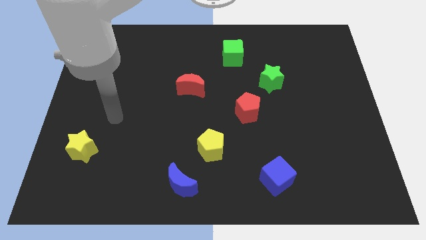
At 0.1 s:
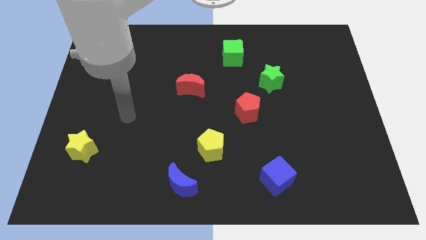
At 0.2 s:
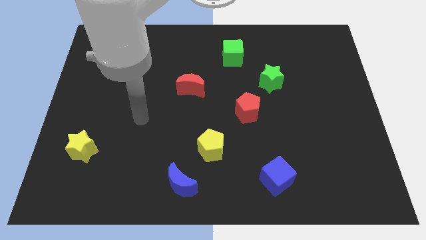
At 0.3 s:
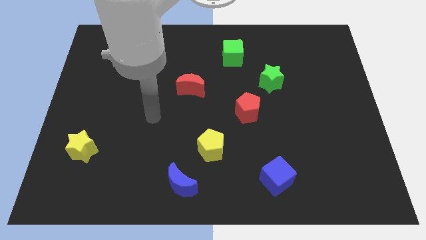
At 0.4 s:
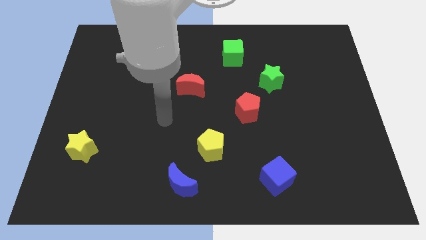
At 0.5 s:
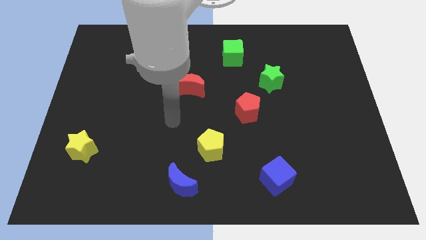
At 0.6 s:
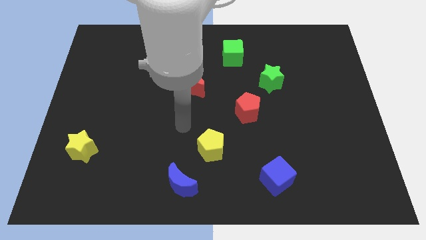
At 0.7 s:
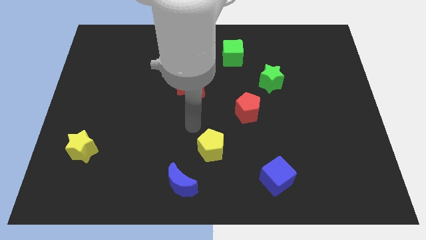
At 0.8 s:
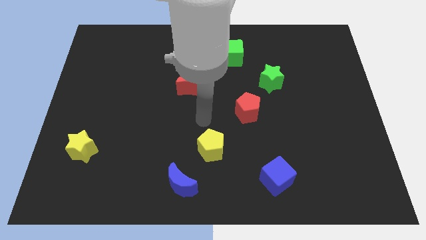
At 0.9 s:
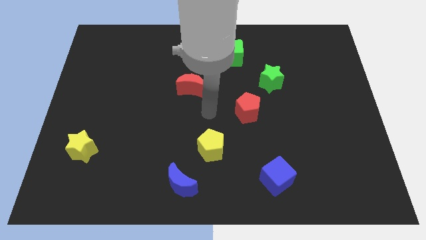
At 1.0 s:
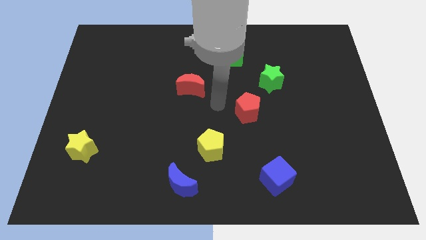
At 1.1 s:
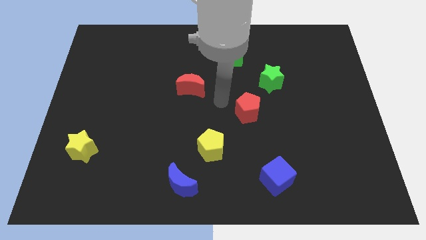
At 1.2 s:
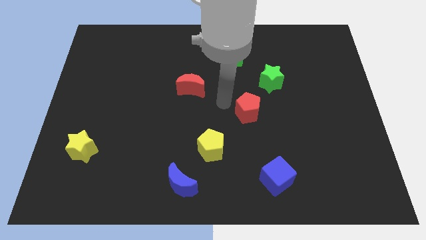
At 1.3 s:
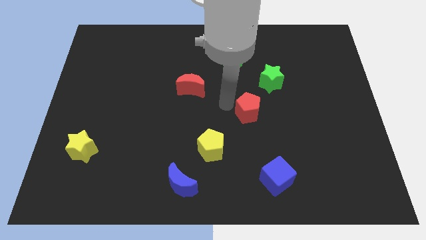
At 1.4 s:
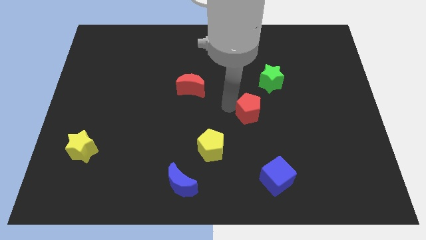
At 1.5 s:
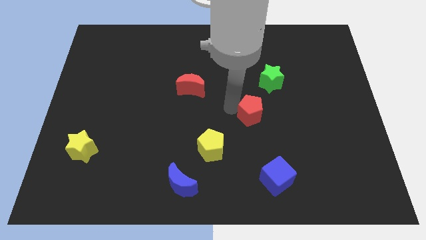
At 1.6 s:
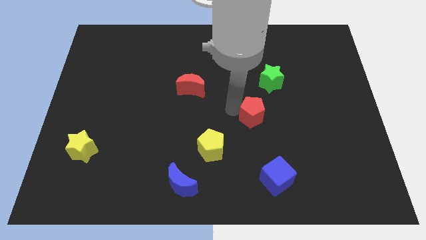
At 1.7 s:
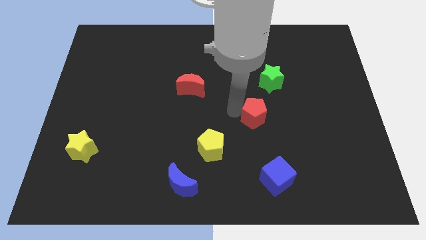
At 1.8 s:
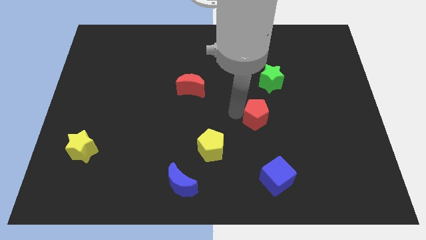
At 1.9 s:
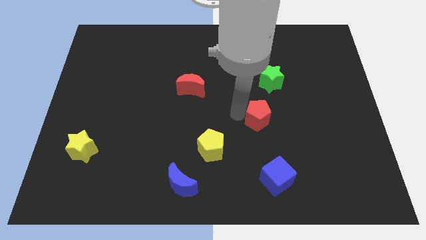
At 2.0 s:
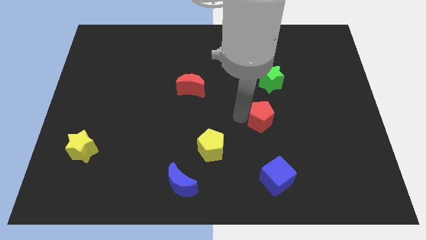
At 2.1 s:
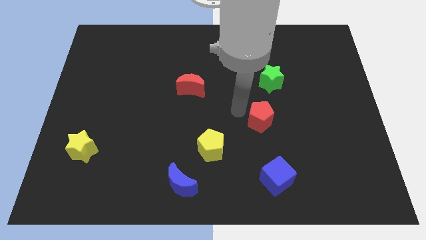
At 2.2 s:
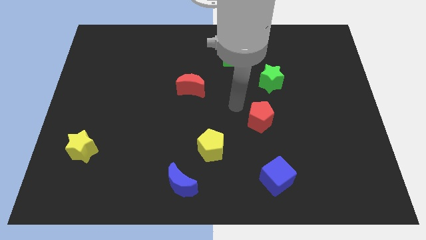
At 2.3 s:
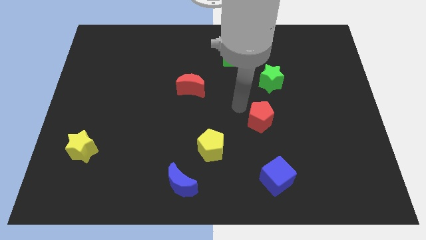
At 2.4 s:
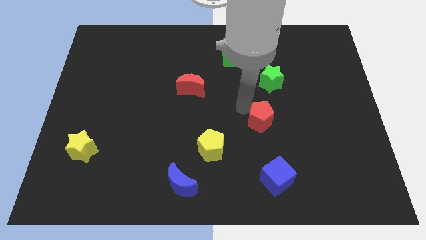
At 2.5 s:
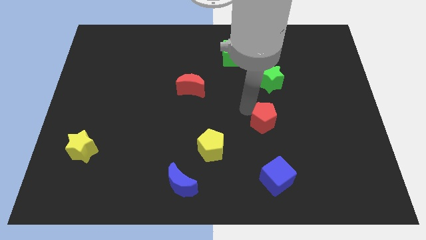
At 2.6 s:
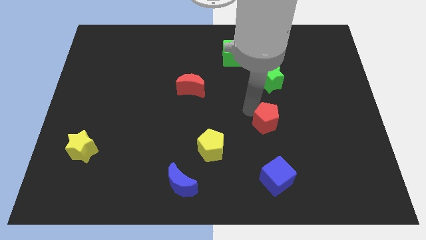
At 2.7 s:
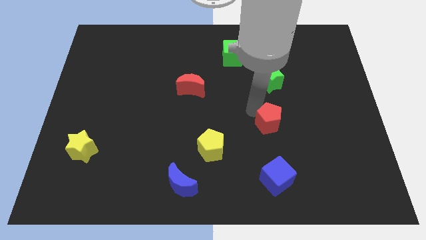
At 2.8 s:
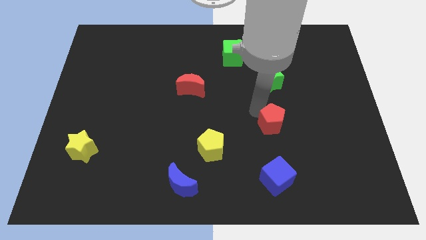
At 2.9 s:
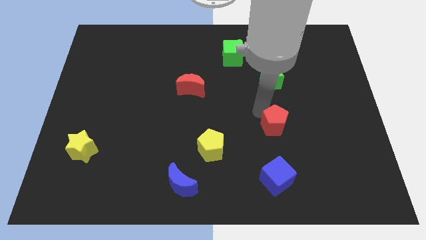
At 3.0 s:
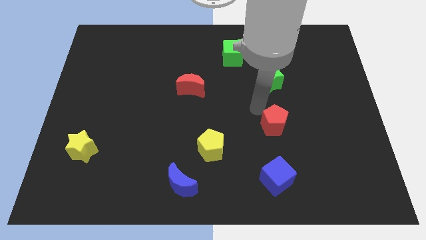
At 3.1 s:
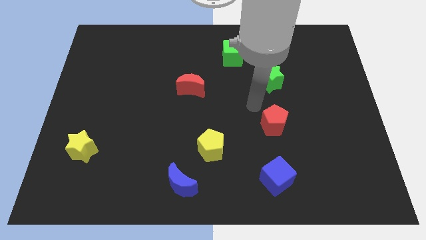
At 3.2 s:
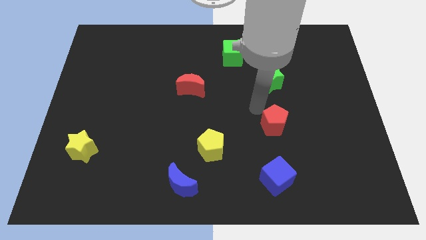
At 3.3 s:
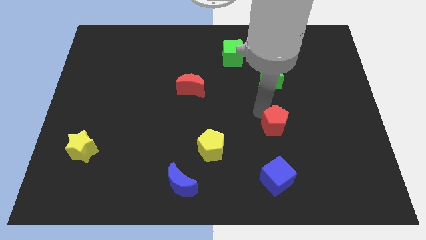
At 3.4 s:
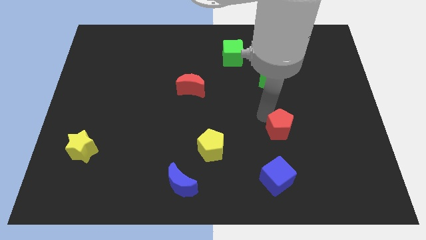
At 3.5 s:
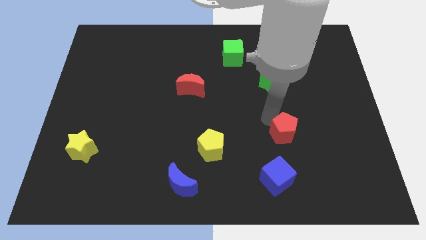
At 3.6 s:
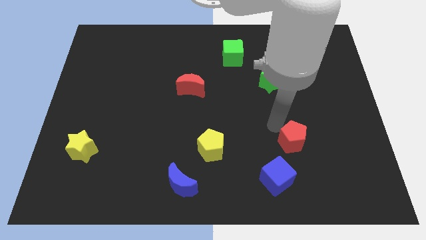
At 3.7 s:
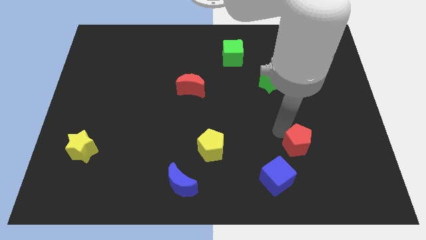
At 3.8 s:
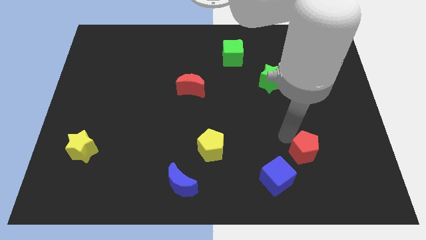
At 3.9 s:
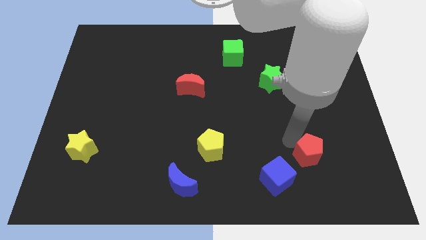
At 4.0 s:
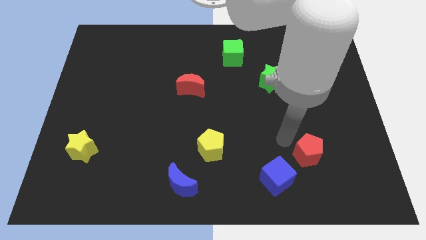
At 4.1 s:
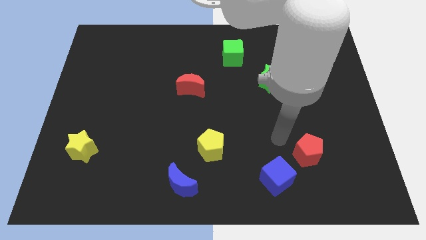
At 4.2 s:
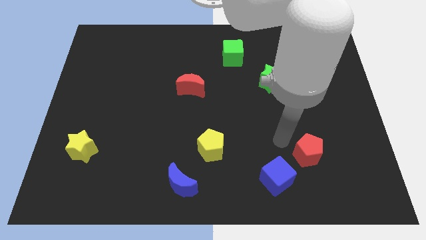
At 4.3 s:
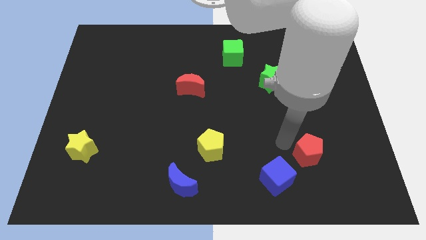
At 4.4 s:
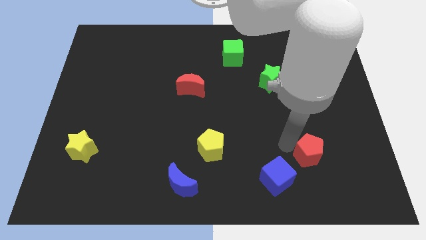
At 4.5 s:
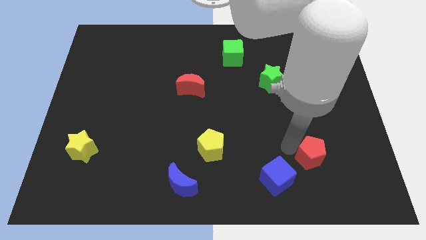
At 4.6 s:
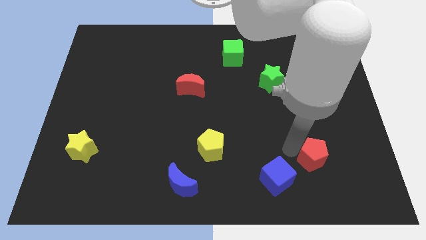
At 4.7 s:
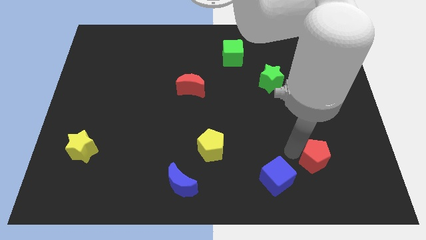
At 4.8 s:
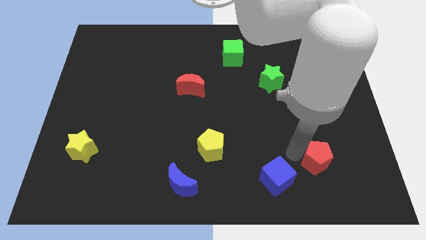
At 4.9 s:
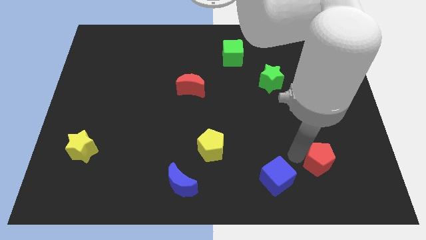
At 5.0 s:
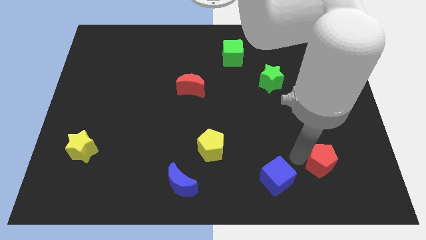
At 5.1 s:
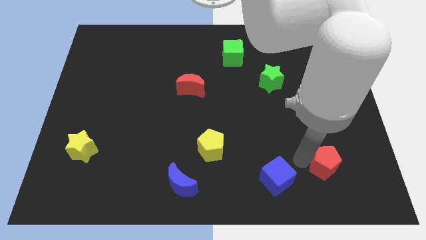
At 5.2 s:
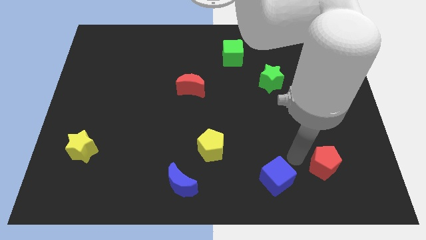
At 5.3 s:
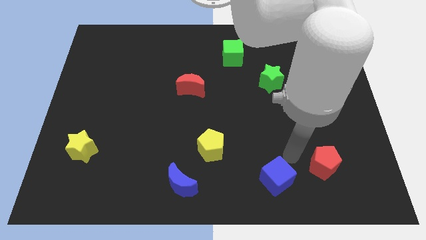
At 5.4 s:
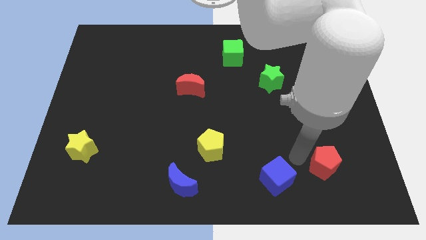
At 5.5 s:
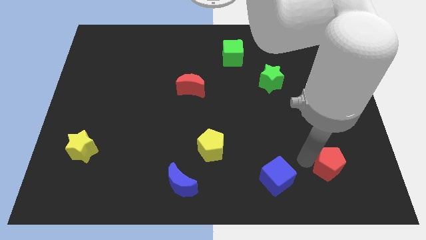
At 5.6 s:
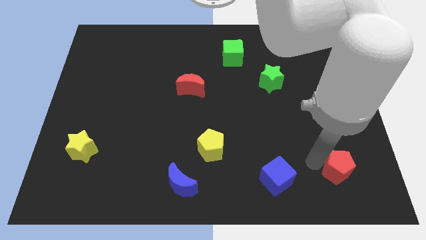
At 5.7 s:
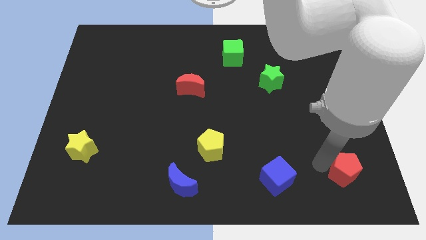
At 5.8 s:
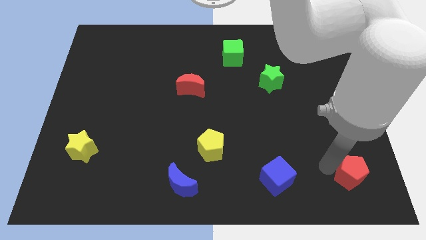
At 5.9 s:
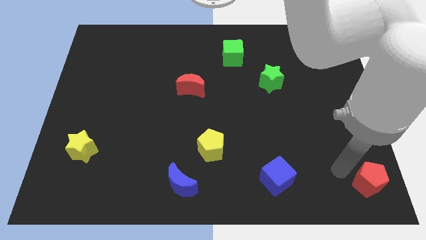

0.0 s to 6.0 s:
move the red pentagon to the bottom right
